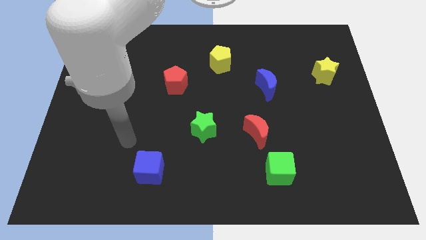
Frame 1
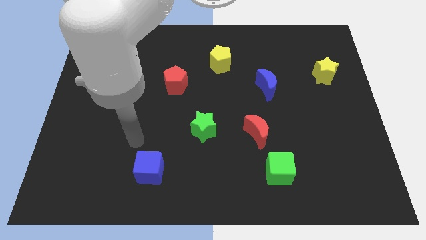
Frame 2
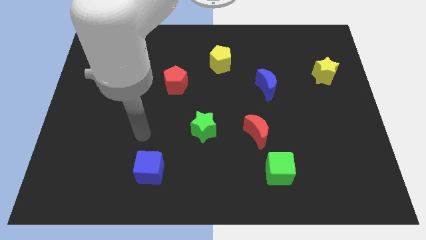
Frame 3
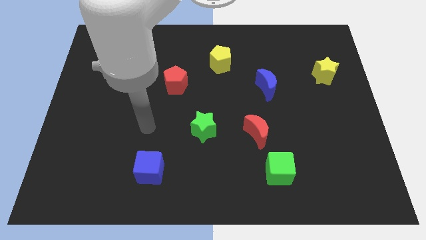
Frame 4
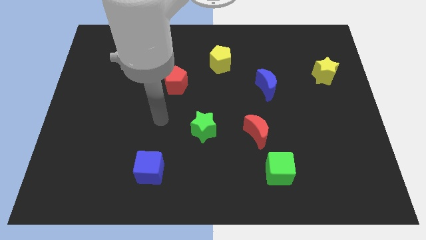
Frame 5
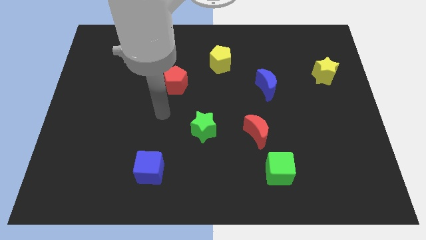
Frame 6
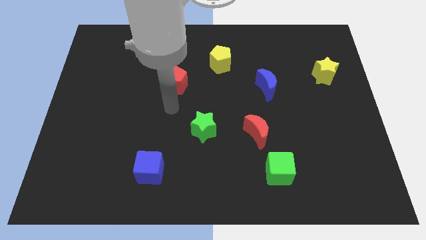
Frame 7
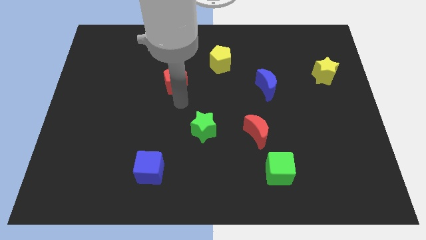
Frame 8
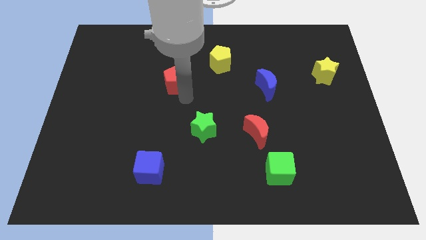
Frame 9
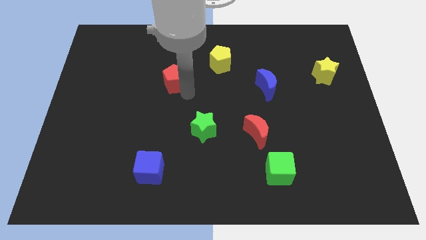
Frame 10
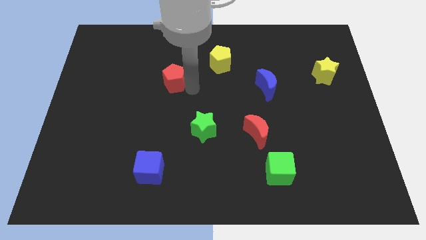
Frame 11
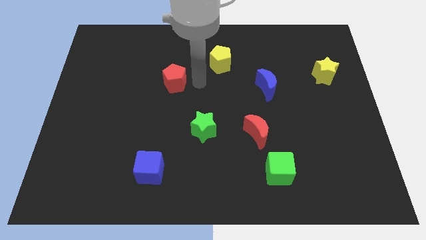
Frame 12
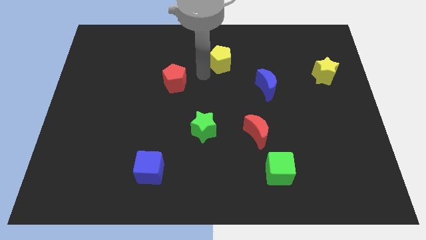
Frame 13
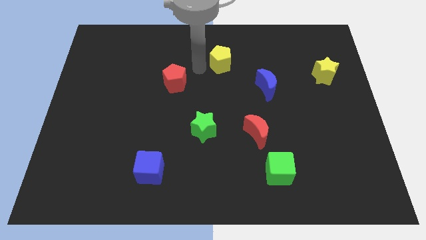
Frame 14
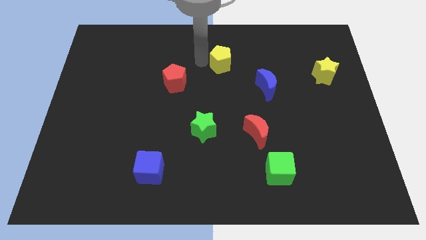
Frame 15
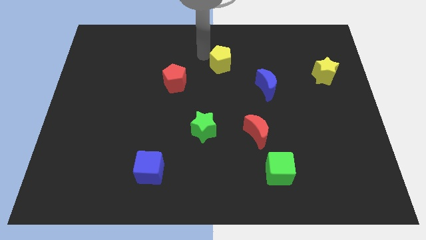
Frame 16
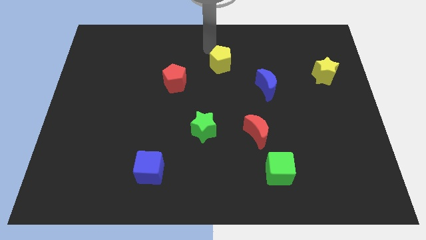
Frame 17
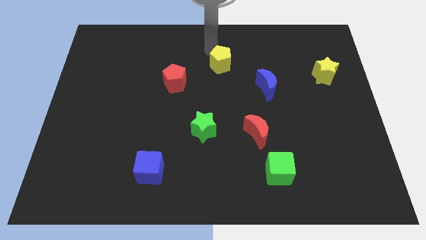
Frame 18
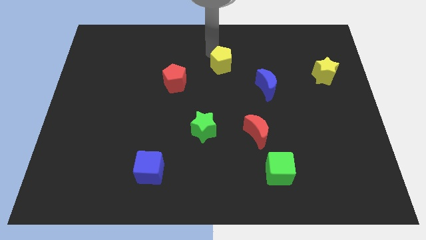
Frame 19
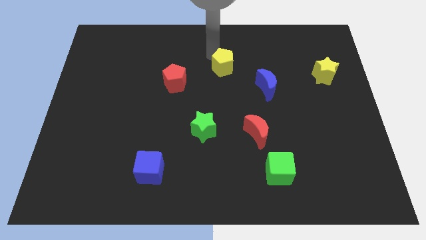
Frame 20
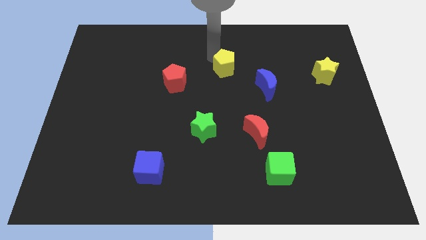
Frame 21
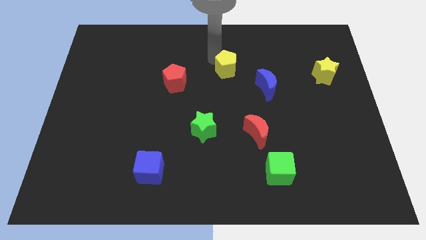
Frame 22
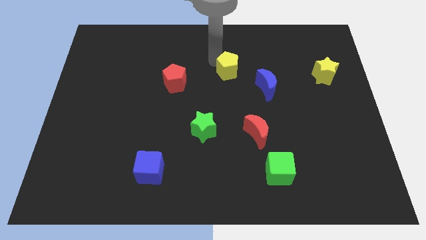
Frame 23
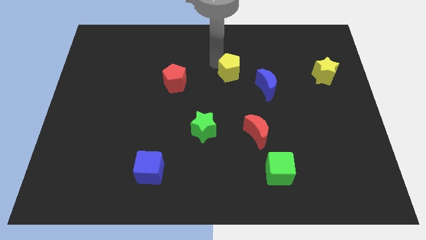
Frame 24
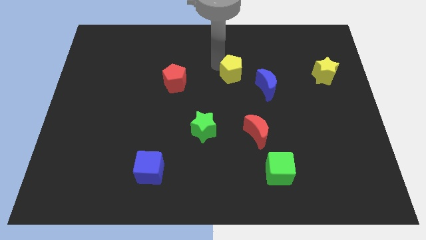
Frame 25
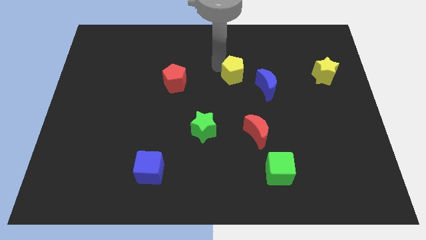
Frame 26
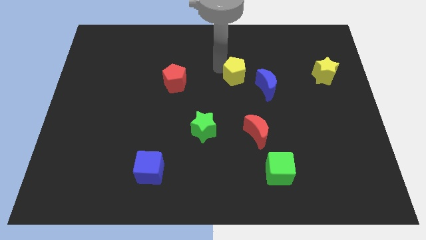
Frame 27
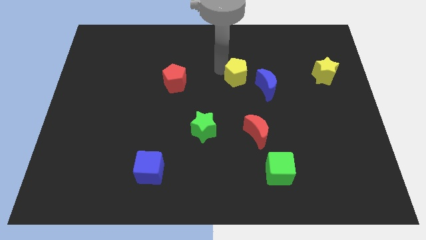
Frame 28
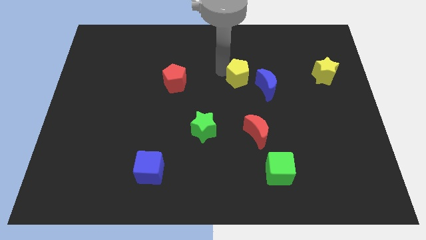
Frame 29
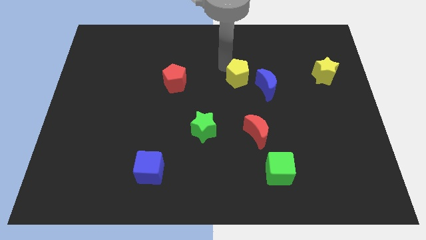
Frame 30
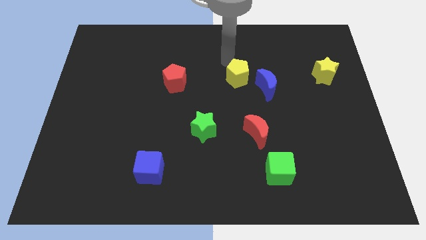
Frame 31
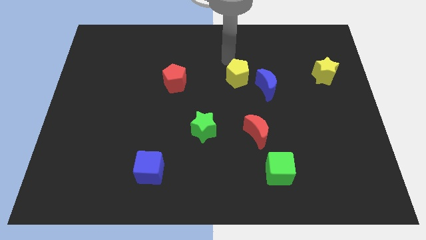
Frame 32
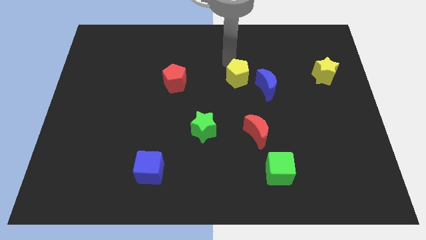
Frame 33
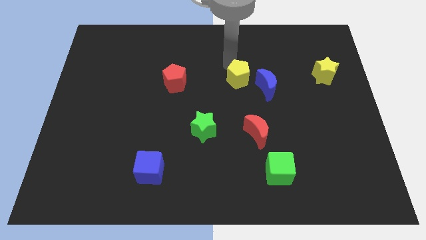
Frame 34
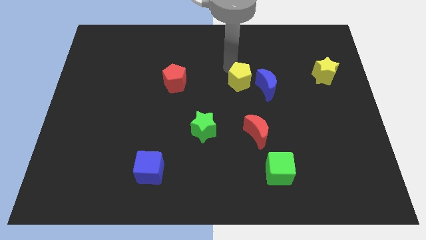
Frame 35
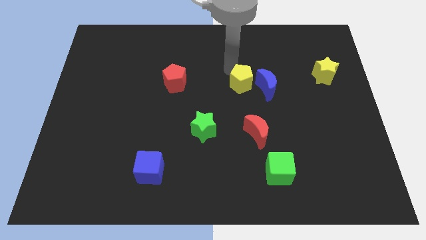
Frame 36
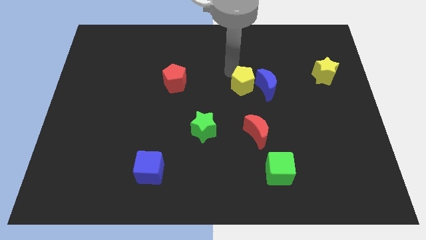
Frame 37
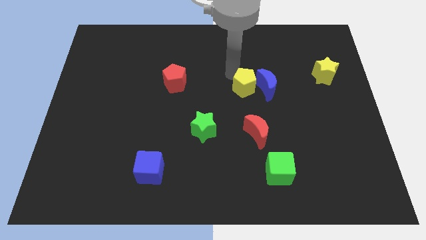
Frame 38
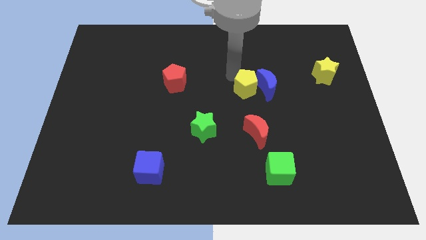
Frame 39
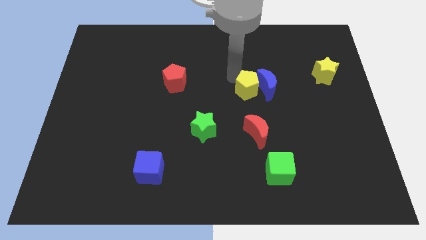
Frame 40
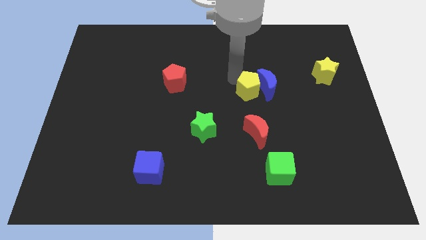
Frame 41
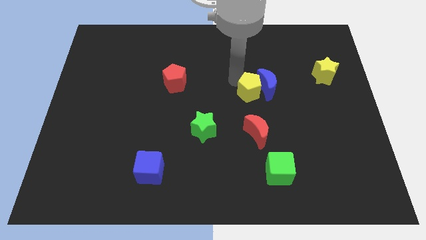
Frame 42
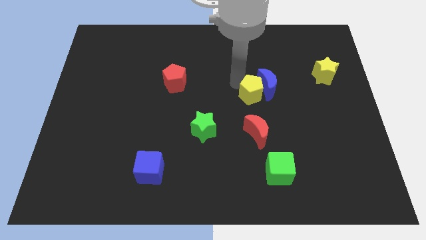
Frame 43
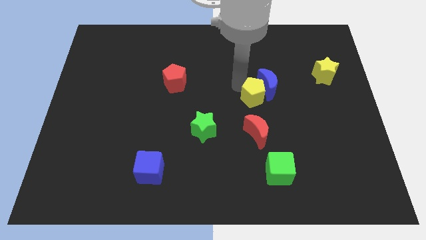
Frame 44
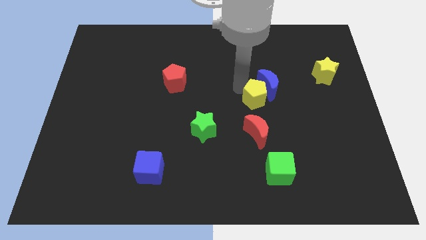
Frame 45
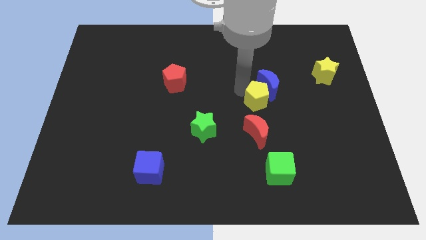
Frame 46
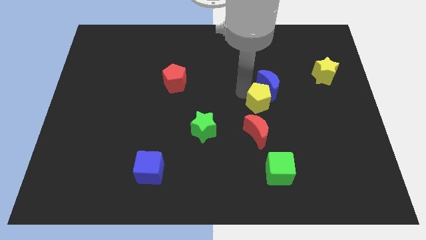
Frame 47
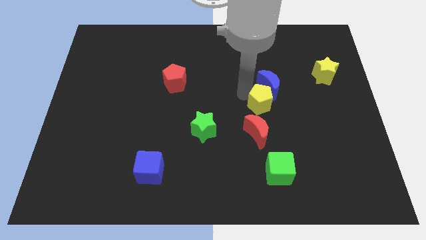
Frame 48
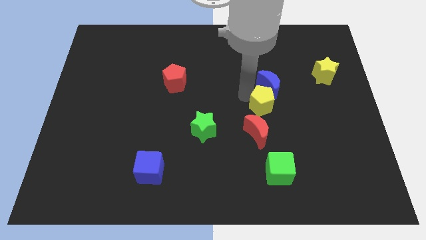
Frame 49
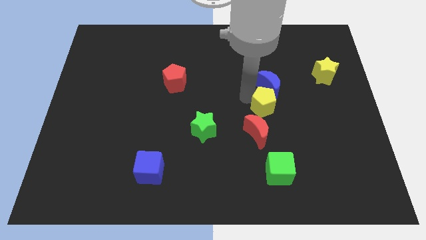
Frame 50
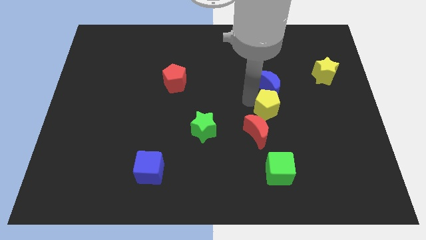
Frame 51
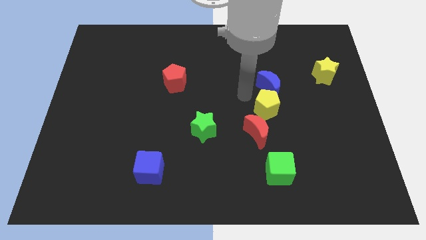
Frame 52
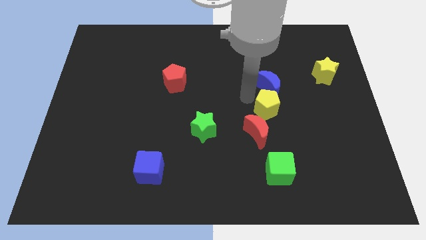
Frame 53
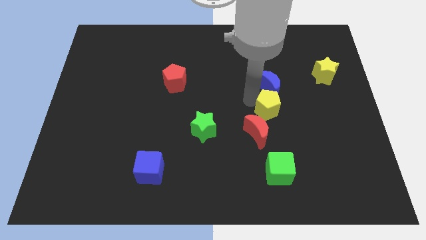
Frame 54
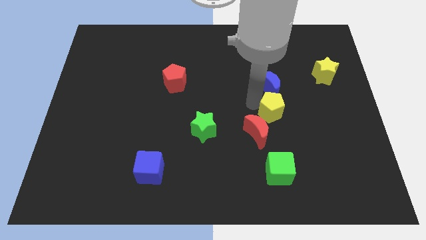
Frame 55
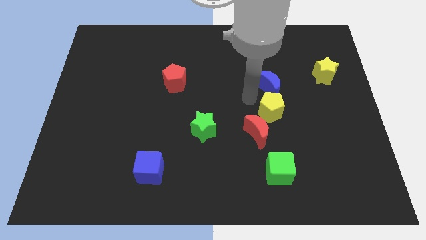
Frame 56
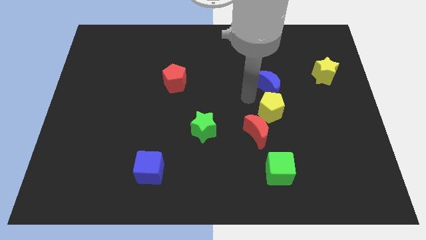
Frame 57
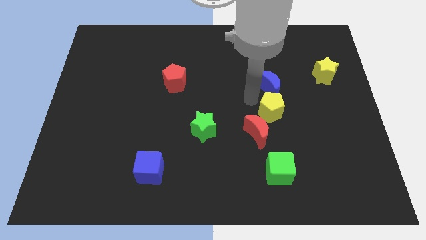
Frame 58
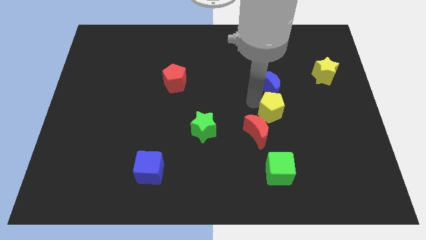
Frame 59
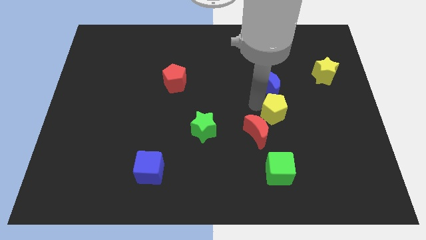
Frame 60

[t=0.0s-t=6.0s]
slide the yellow pentagon downwards and right

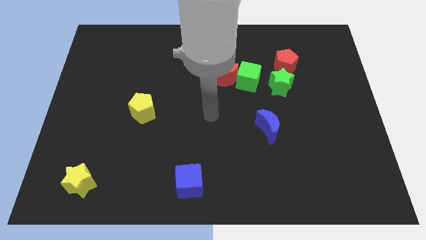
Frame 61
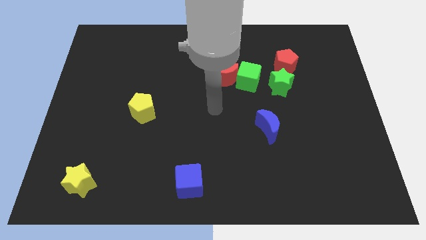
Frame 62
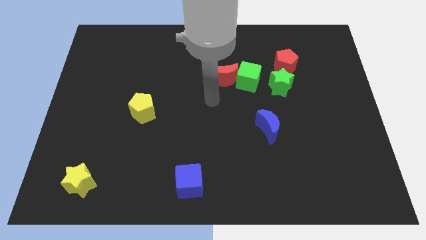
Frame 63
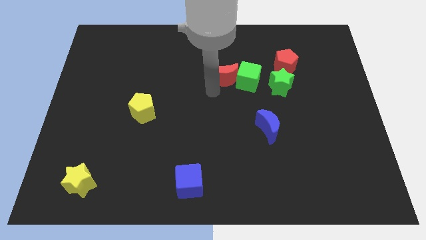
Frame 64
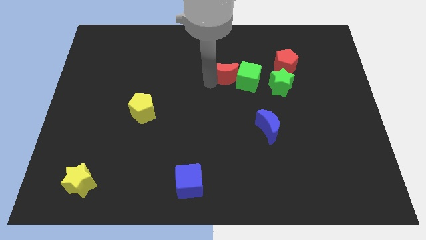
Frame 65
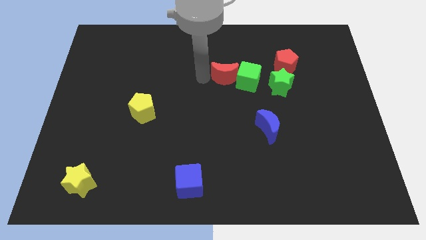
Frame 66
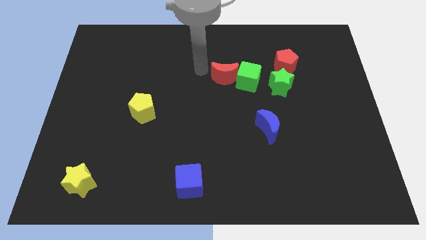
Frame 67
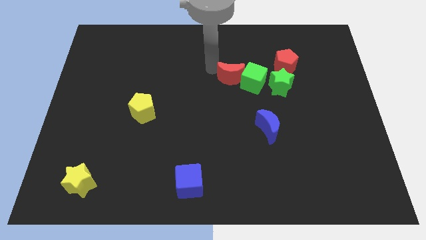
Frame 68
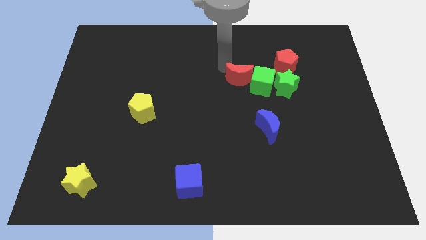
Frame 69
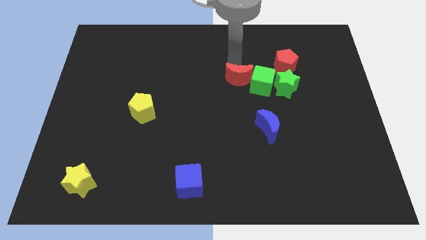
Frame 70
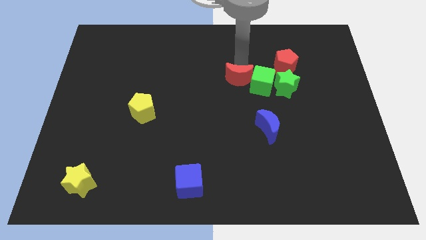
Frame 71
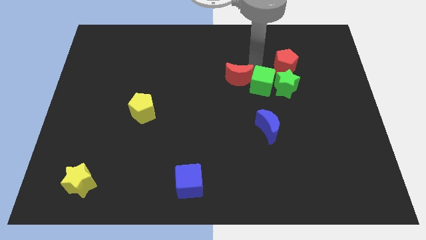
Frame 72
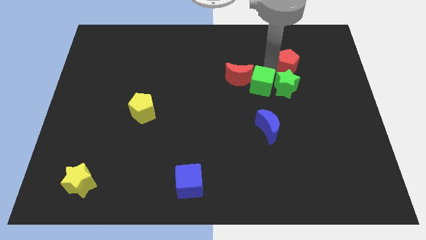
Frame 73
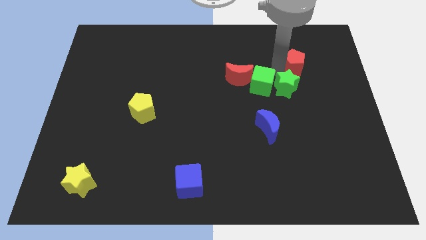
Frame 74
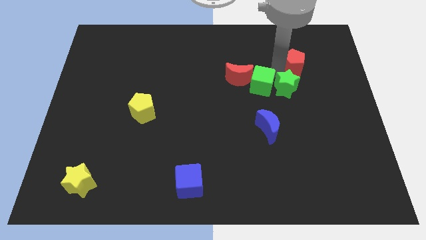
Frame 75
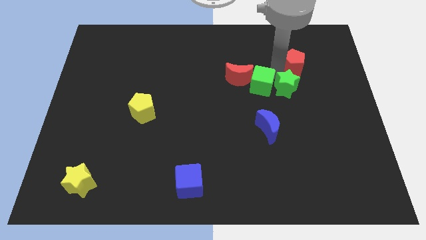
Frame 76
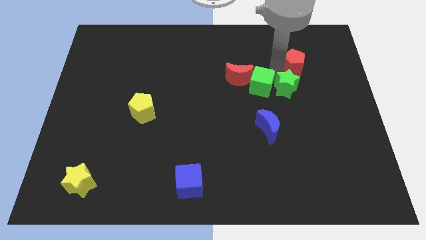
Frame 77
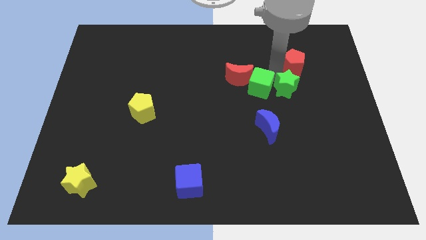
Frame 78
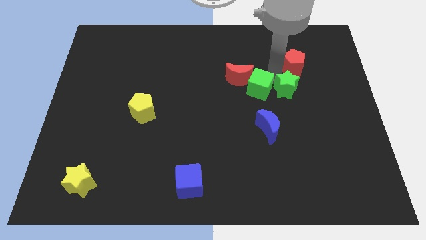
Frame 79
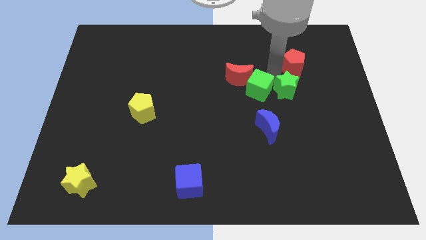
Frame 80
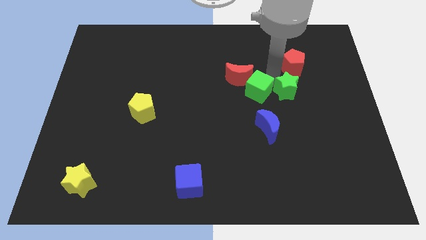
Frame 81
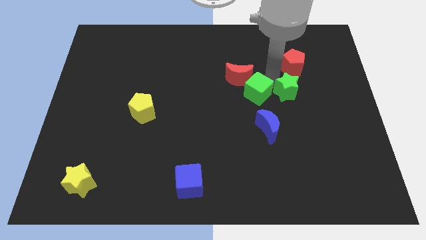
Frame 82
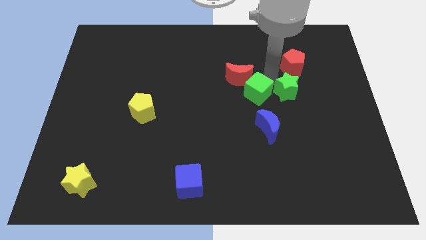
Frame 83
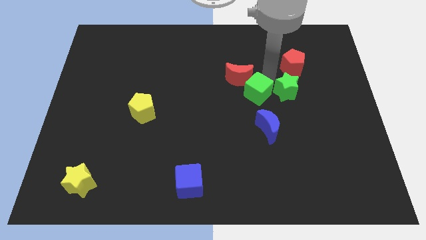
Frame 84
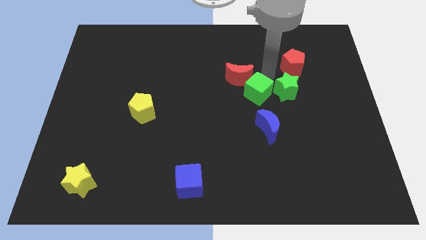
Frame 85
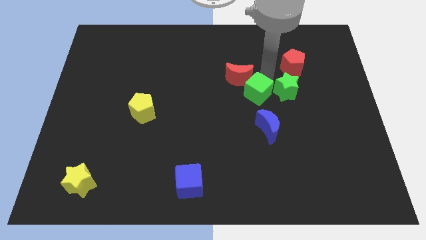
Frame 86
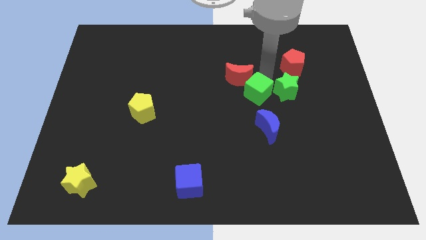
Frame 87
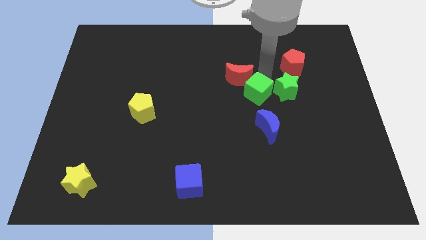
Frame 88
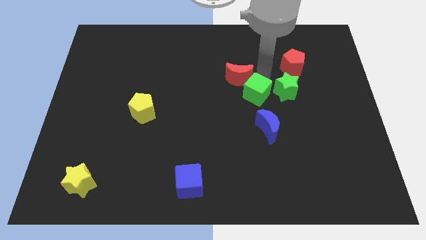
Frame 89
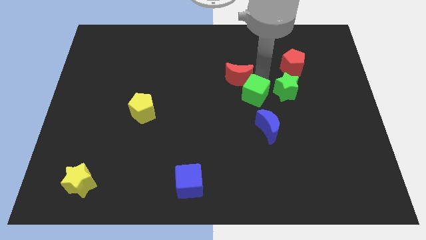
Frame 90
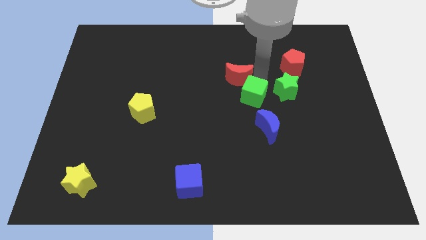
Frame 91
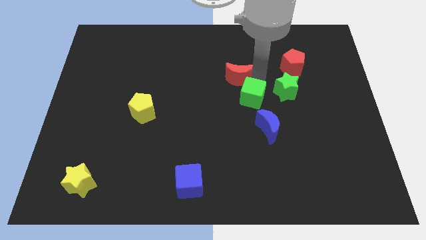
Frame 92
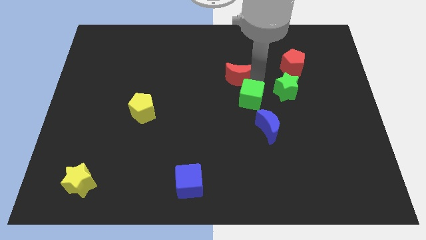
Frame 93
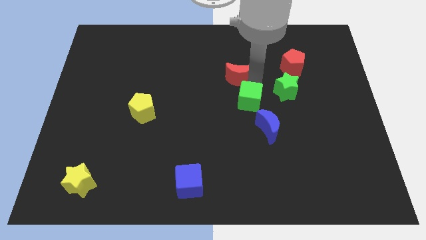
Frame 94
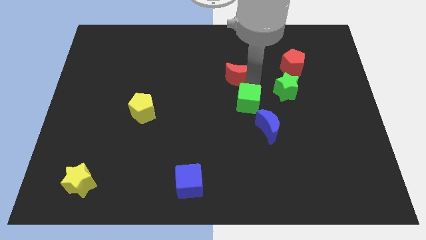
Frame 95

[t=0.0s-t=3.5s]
slightly move the green cube downwards
